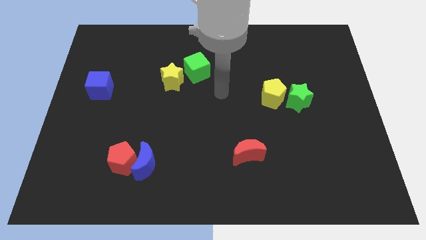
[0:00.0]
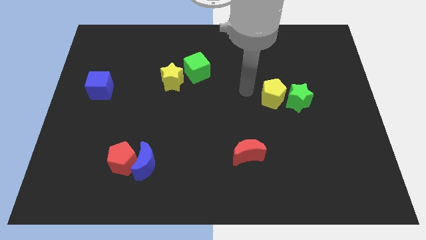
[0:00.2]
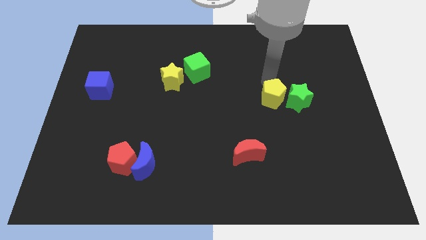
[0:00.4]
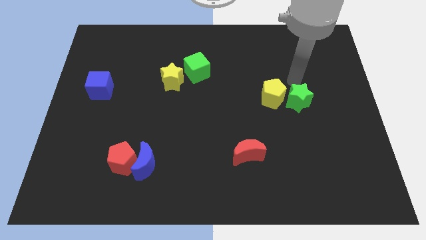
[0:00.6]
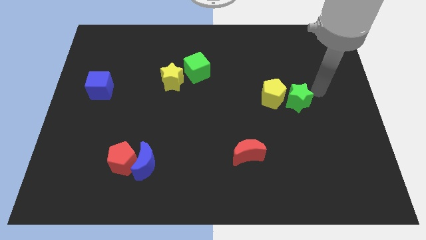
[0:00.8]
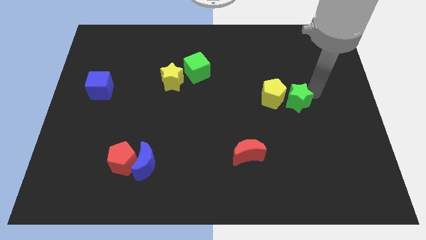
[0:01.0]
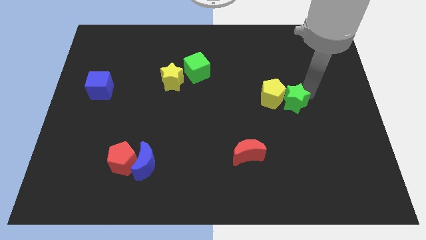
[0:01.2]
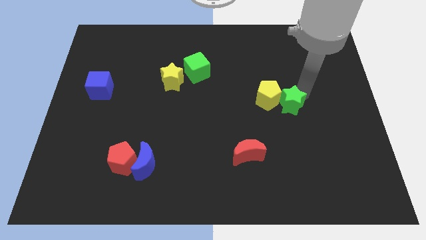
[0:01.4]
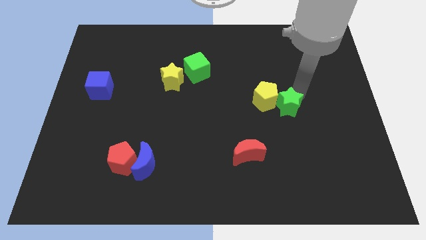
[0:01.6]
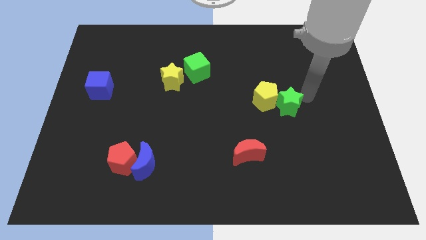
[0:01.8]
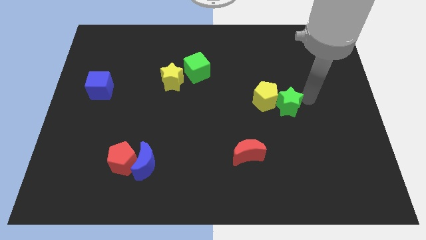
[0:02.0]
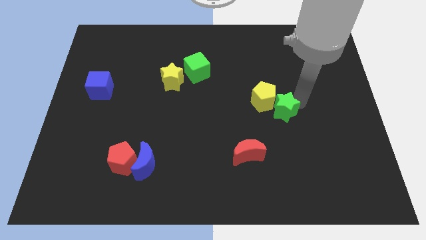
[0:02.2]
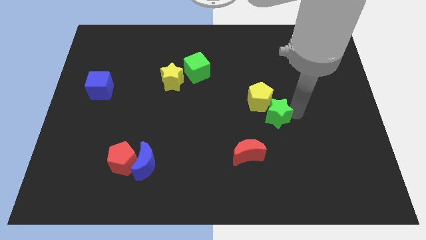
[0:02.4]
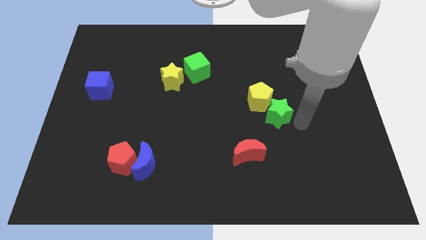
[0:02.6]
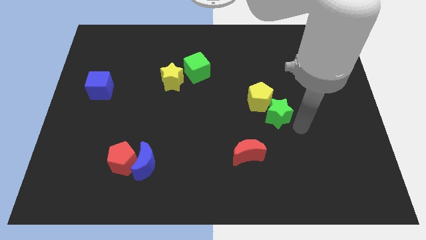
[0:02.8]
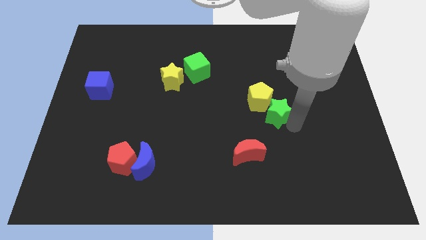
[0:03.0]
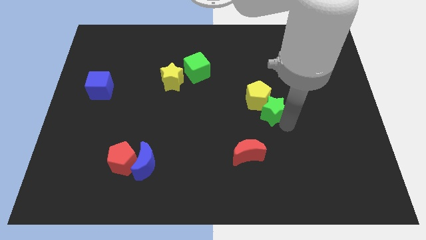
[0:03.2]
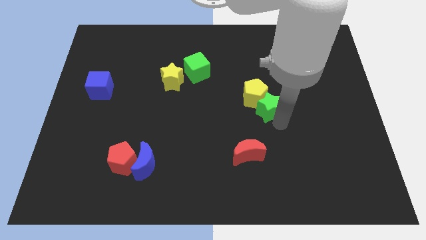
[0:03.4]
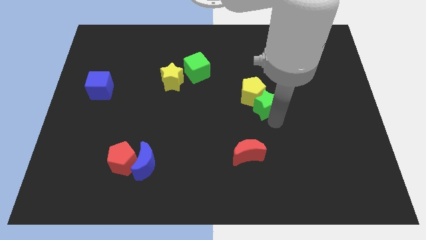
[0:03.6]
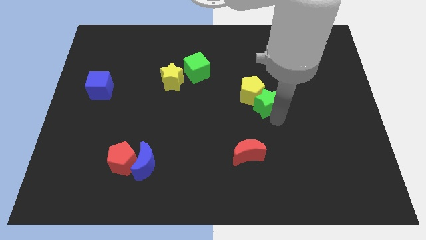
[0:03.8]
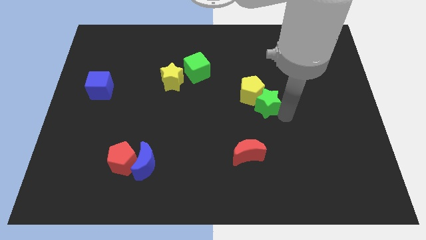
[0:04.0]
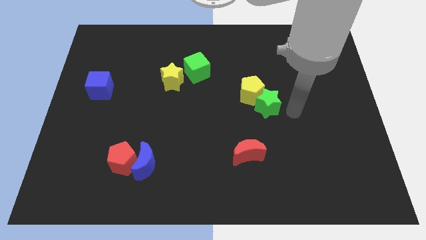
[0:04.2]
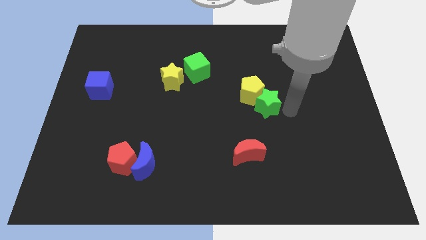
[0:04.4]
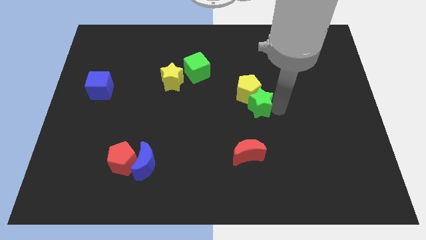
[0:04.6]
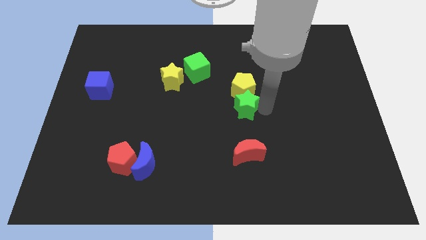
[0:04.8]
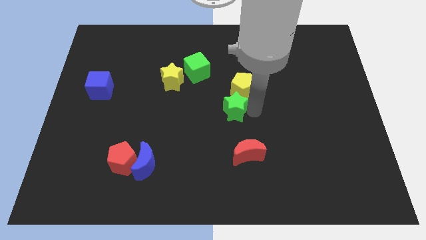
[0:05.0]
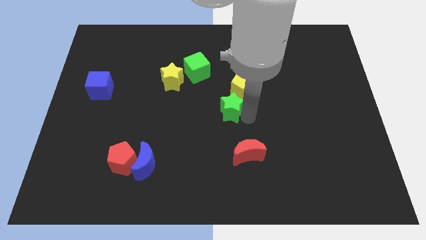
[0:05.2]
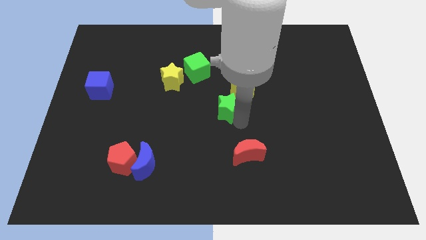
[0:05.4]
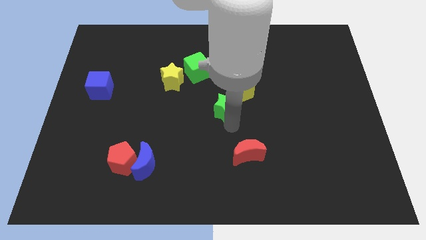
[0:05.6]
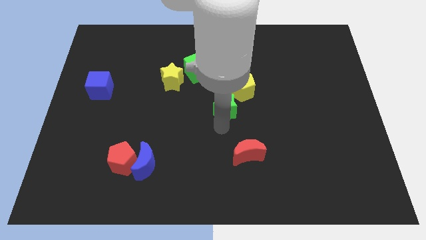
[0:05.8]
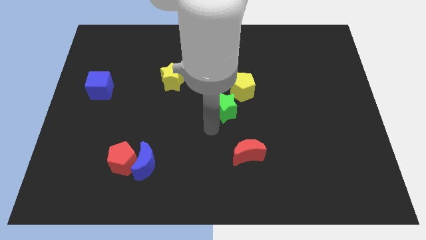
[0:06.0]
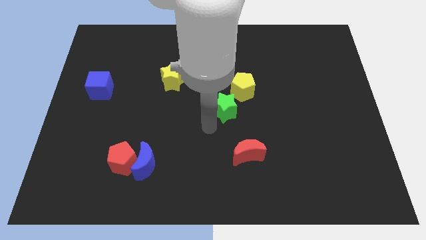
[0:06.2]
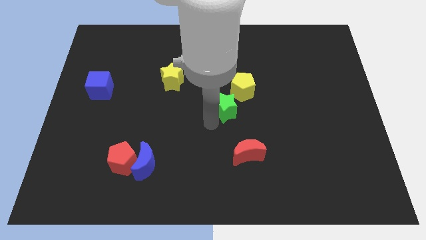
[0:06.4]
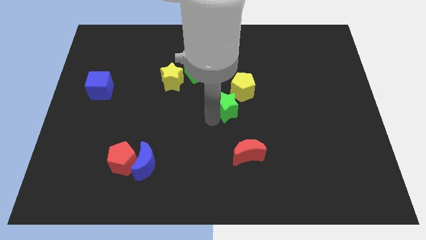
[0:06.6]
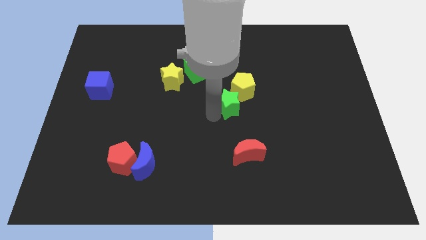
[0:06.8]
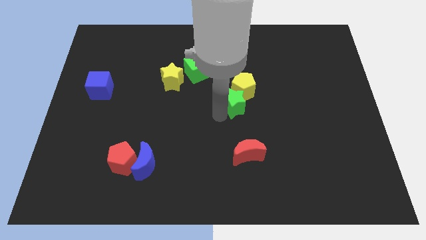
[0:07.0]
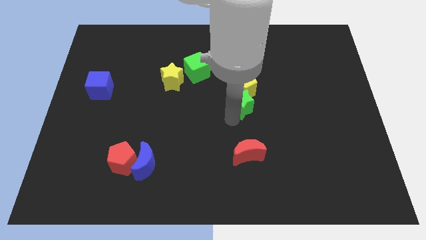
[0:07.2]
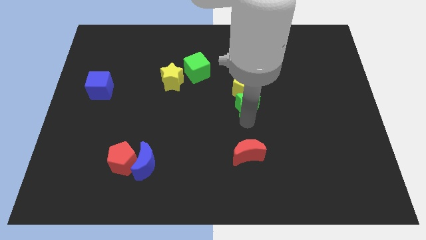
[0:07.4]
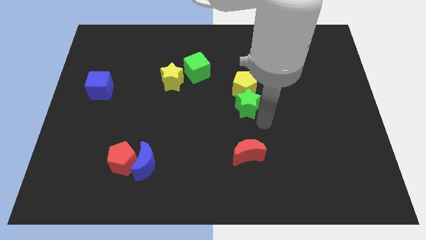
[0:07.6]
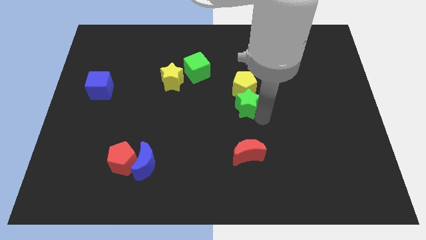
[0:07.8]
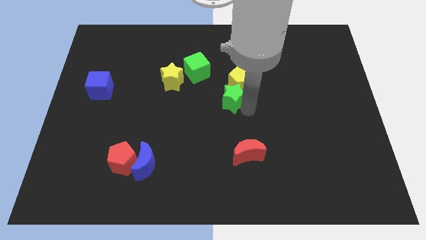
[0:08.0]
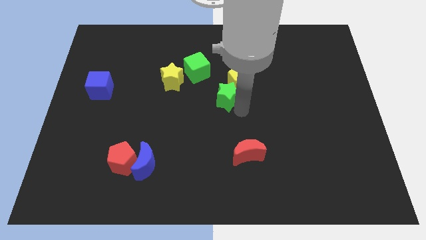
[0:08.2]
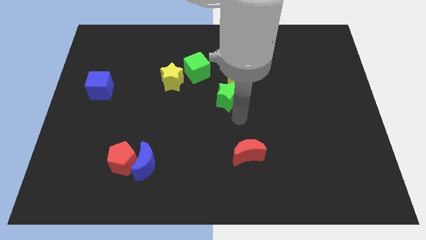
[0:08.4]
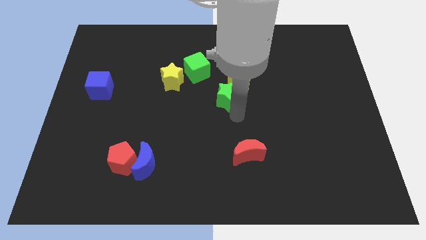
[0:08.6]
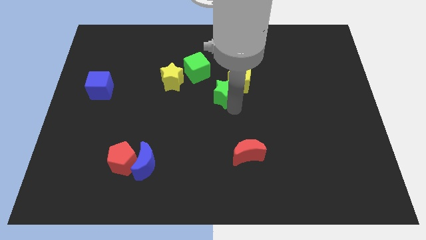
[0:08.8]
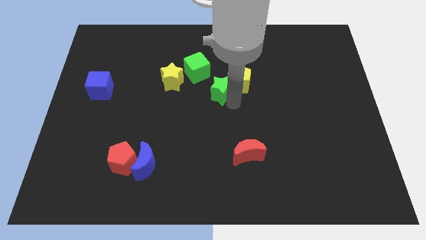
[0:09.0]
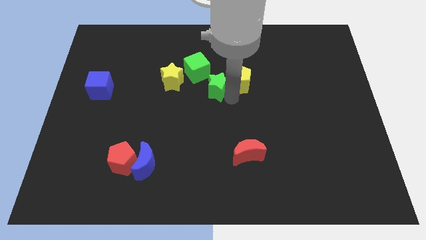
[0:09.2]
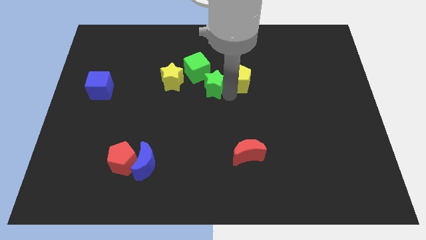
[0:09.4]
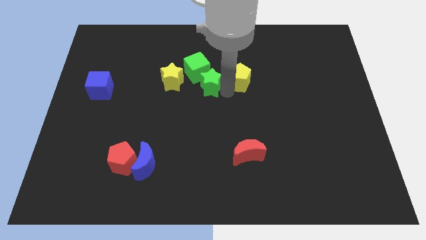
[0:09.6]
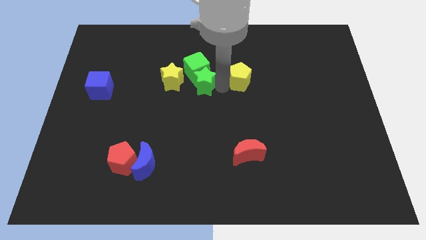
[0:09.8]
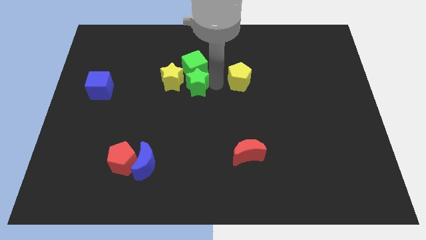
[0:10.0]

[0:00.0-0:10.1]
slide the green star next to the yellow star

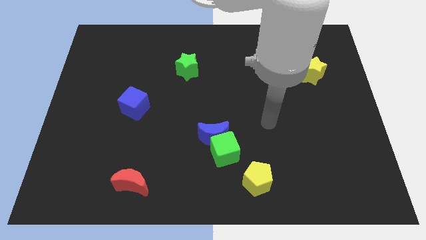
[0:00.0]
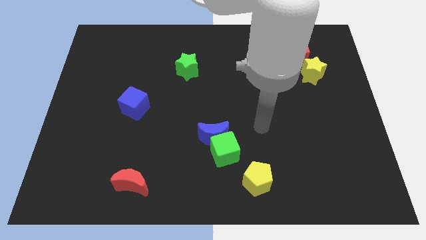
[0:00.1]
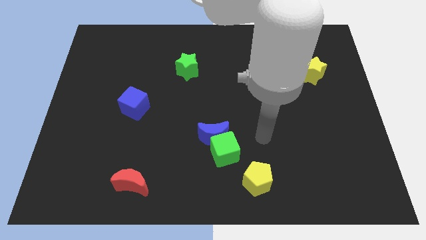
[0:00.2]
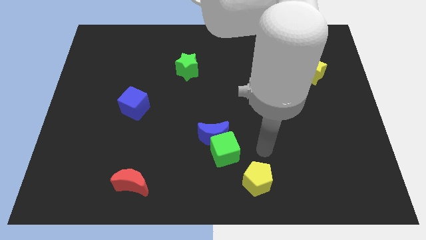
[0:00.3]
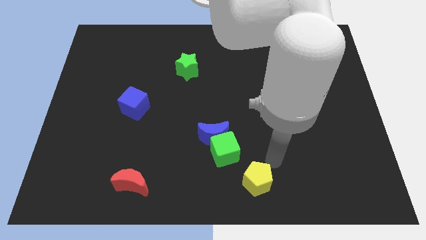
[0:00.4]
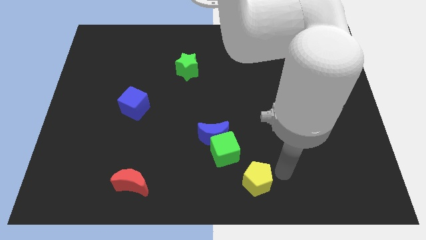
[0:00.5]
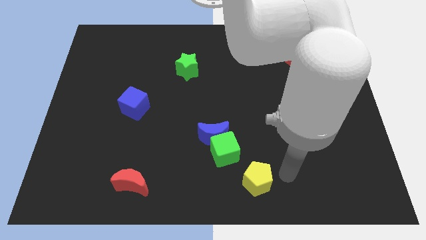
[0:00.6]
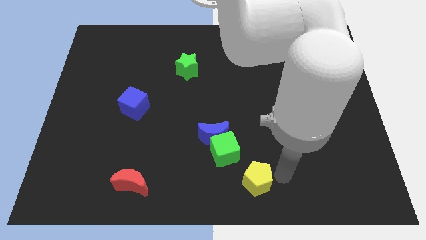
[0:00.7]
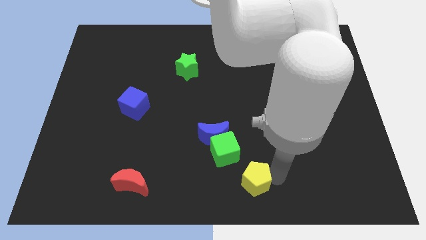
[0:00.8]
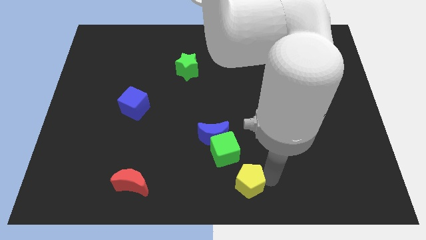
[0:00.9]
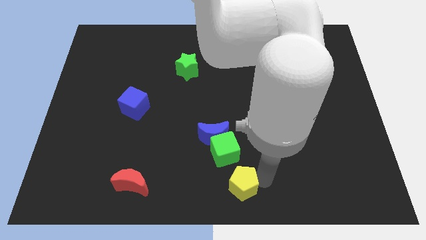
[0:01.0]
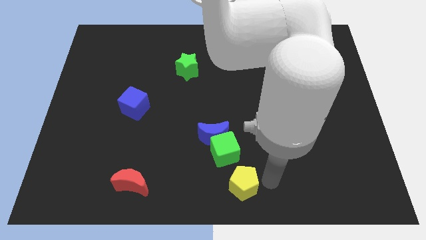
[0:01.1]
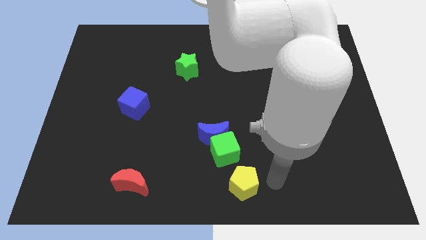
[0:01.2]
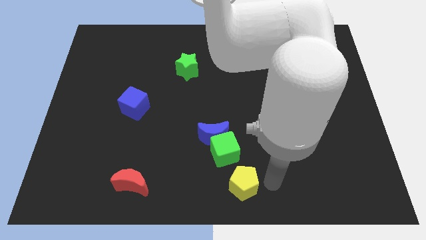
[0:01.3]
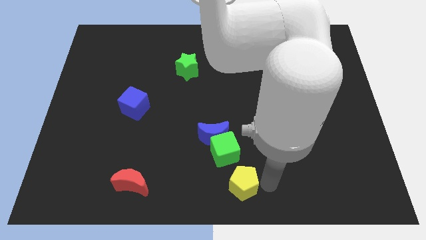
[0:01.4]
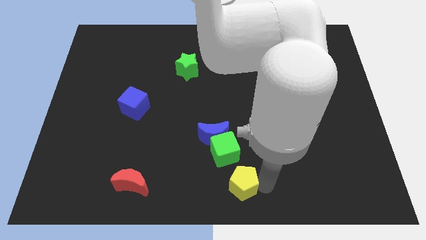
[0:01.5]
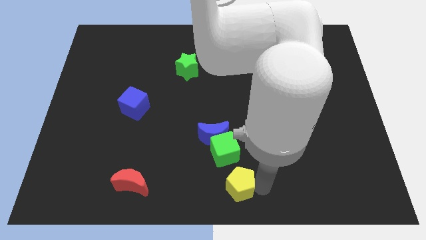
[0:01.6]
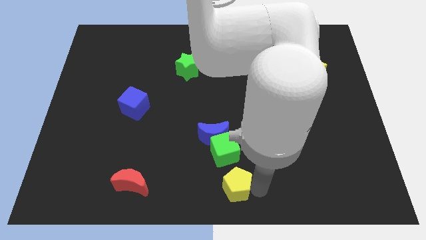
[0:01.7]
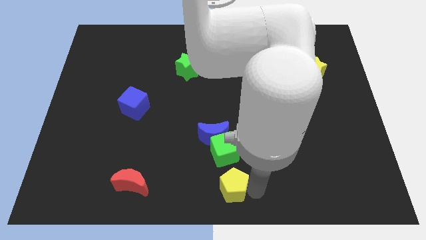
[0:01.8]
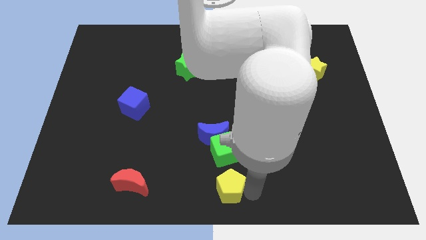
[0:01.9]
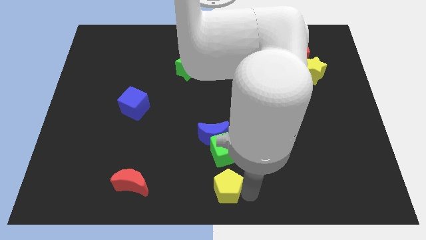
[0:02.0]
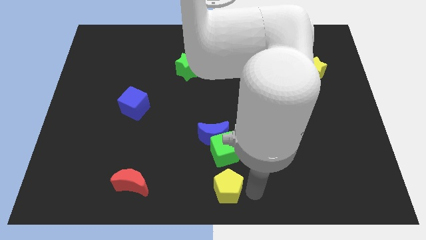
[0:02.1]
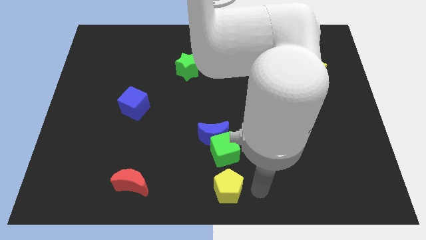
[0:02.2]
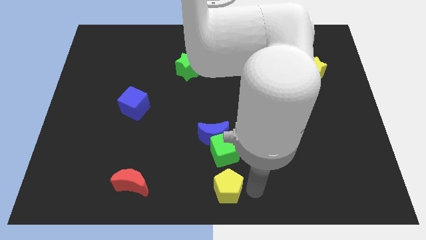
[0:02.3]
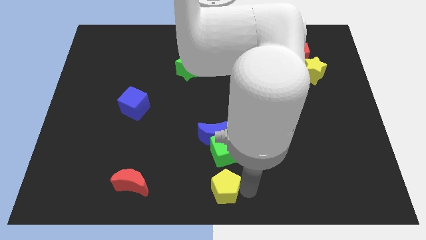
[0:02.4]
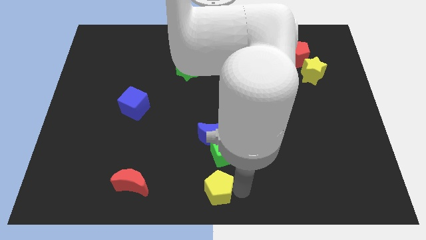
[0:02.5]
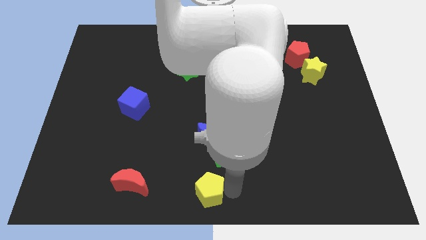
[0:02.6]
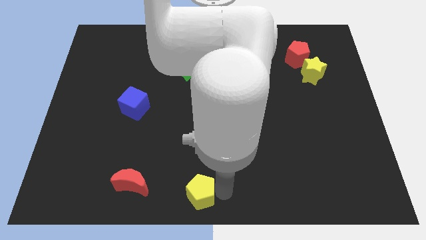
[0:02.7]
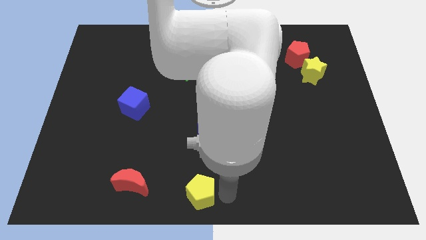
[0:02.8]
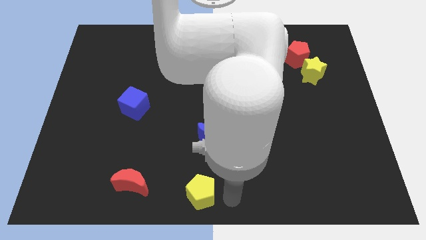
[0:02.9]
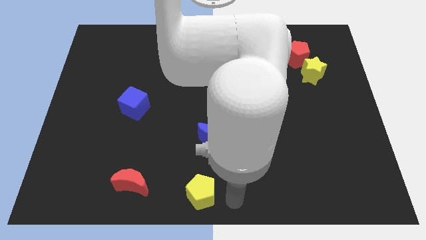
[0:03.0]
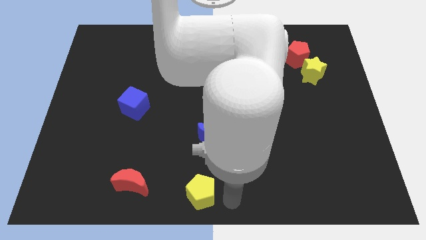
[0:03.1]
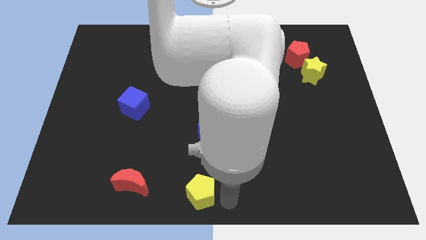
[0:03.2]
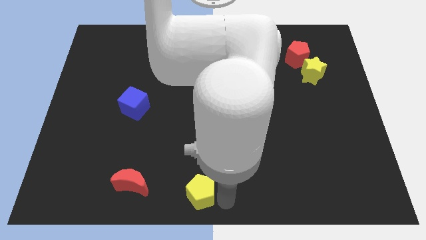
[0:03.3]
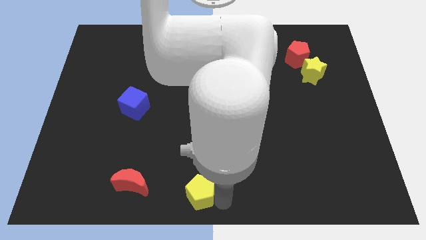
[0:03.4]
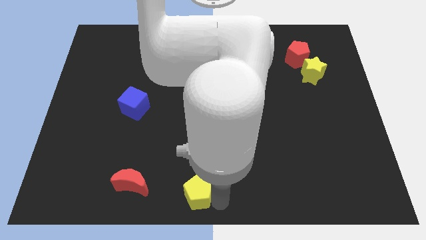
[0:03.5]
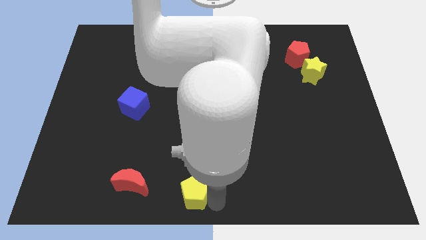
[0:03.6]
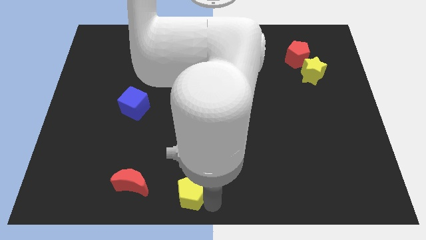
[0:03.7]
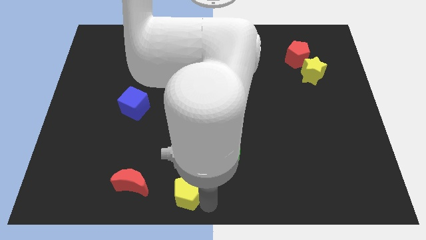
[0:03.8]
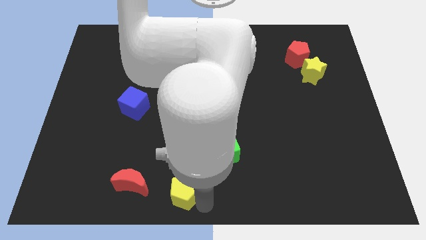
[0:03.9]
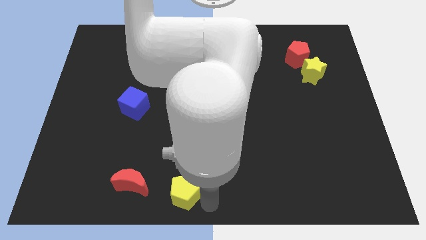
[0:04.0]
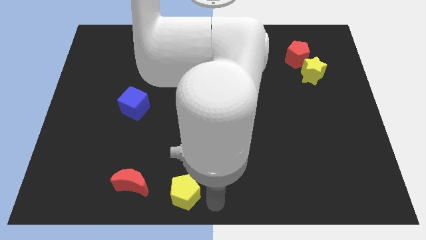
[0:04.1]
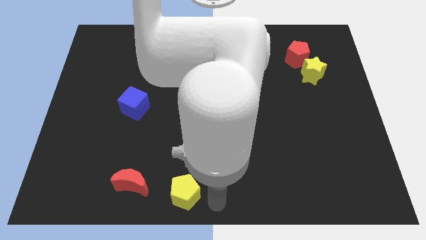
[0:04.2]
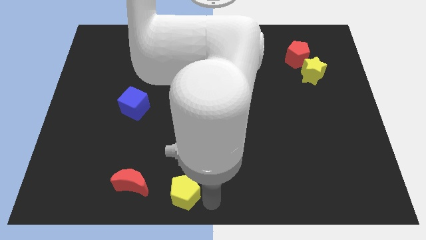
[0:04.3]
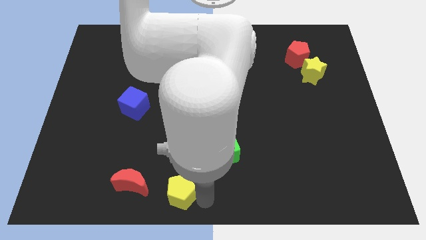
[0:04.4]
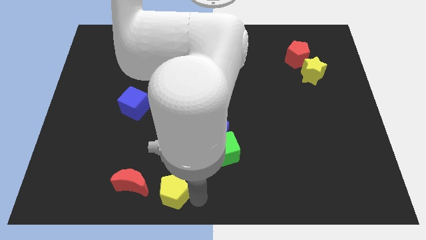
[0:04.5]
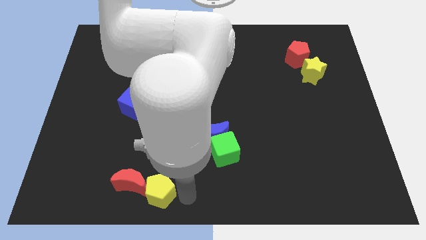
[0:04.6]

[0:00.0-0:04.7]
put the yellow pentagon next to the red moon
